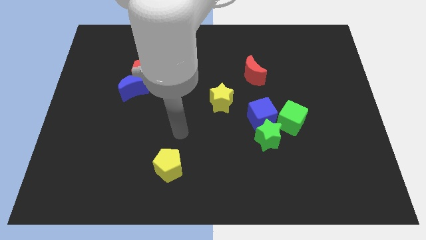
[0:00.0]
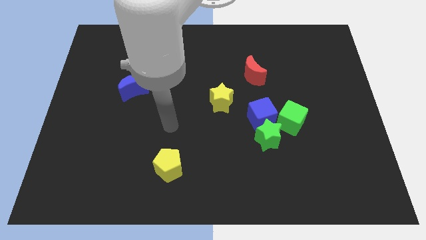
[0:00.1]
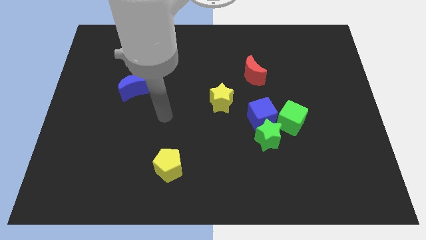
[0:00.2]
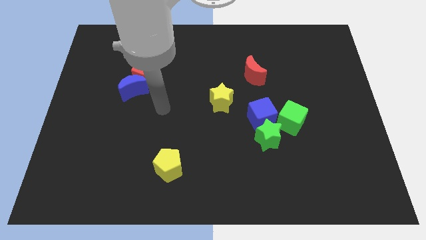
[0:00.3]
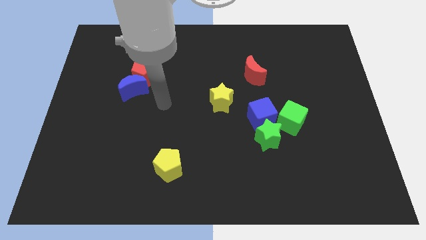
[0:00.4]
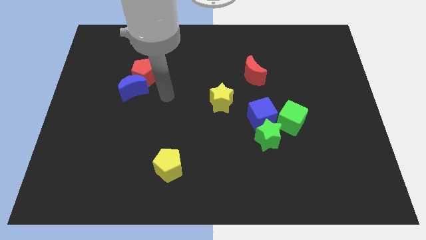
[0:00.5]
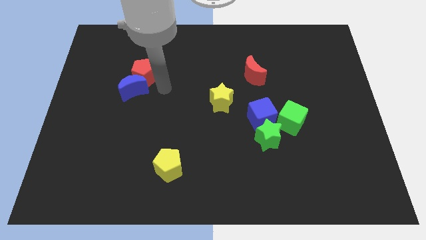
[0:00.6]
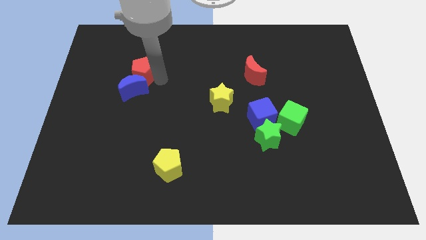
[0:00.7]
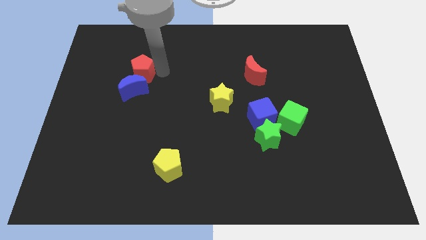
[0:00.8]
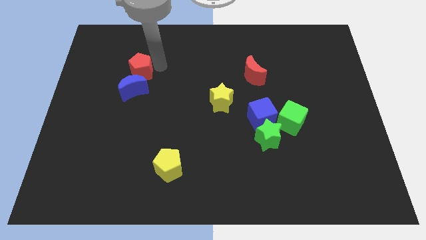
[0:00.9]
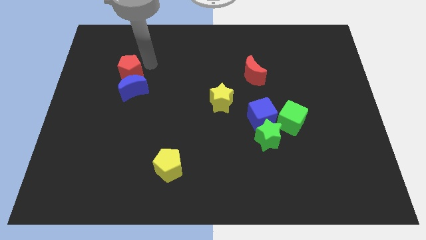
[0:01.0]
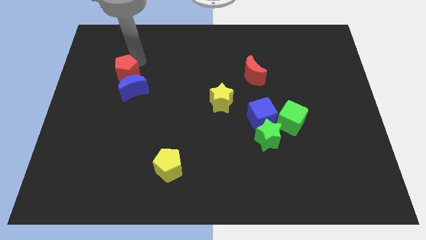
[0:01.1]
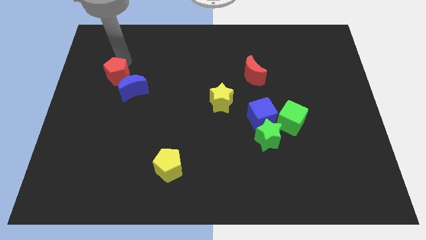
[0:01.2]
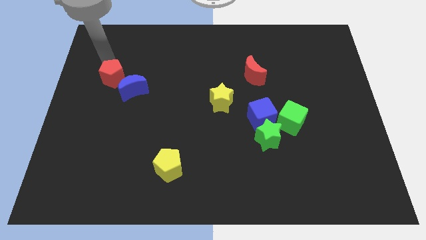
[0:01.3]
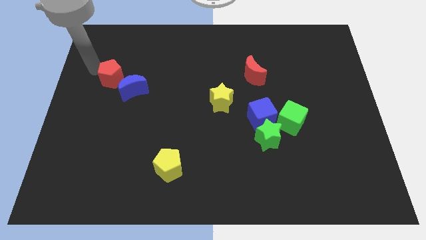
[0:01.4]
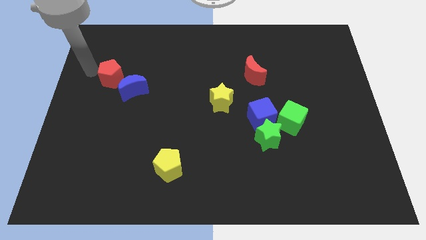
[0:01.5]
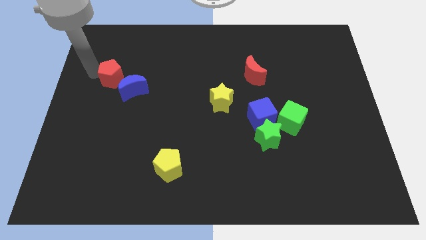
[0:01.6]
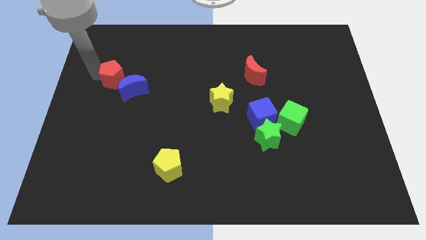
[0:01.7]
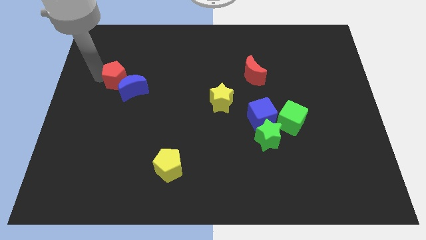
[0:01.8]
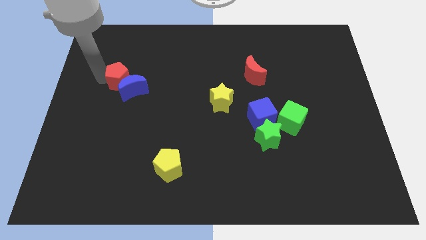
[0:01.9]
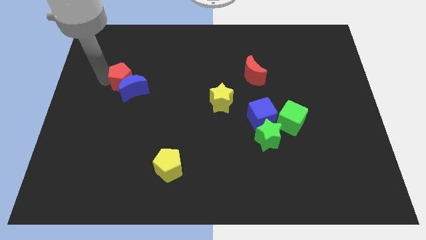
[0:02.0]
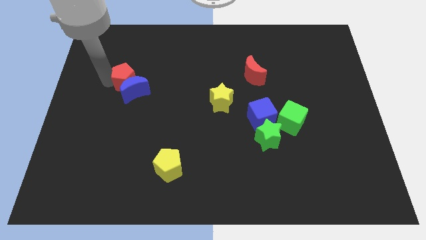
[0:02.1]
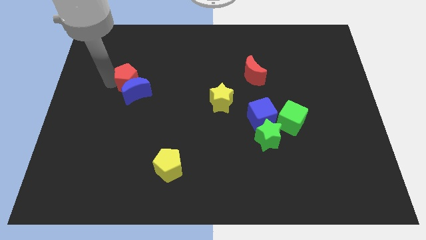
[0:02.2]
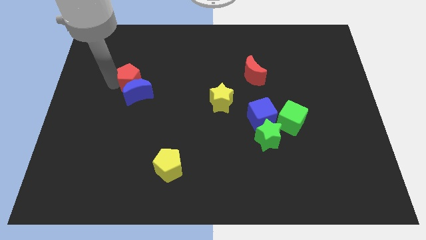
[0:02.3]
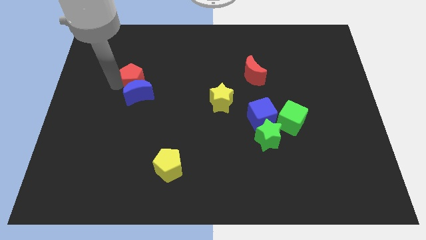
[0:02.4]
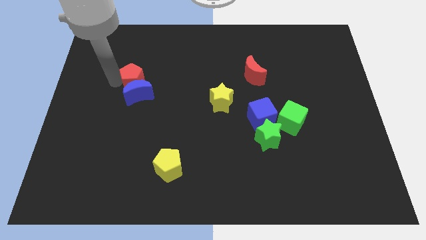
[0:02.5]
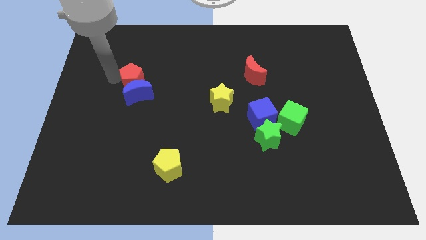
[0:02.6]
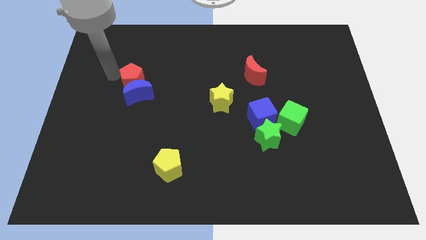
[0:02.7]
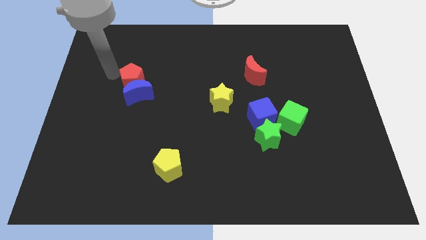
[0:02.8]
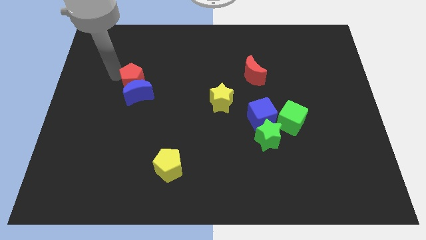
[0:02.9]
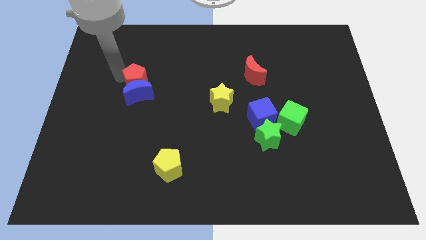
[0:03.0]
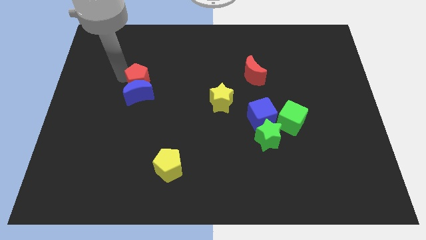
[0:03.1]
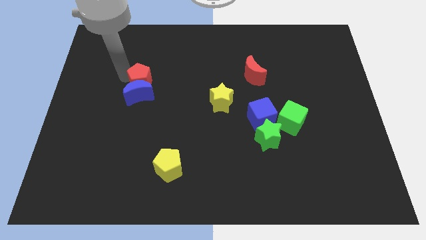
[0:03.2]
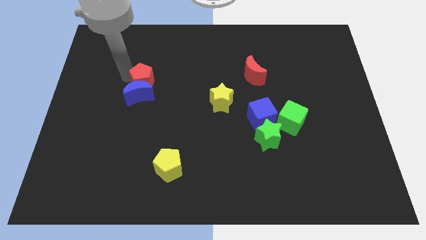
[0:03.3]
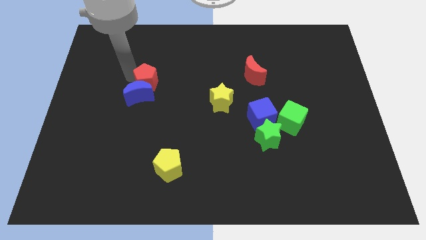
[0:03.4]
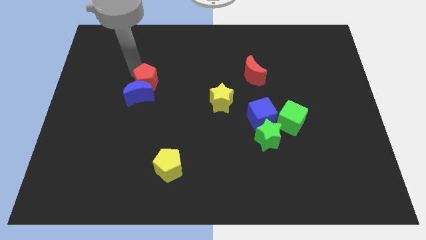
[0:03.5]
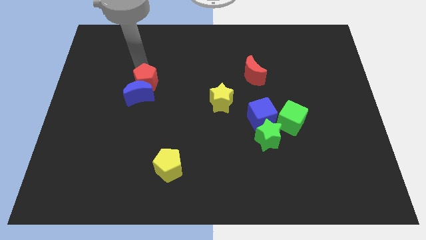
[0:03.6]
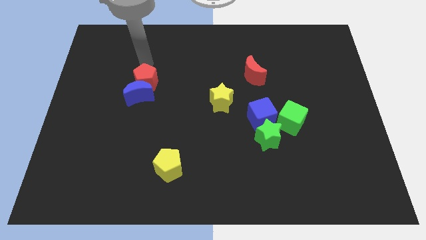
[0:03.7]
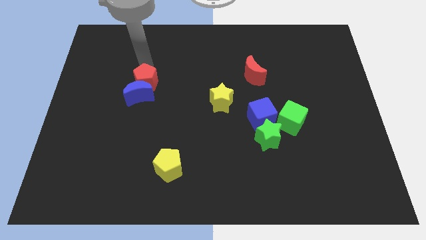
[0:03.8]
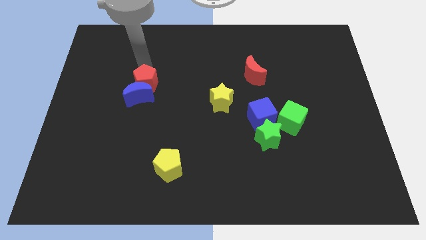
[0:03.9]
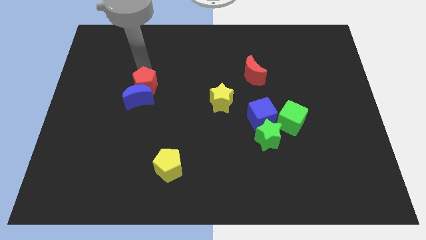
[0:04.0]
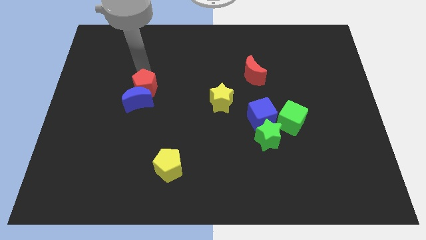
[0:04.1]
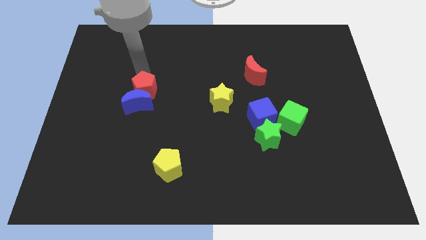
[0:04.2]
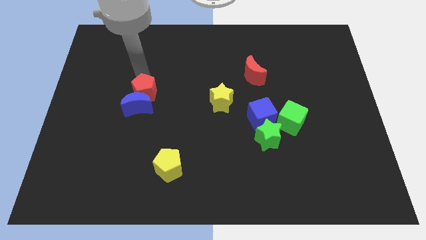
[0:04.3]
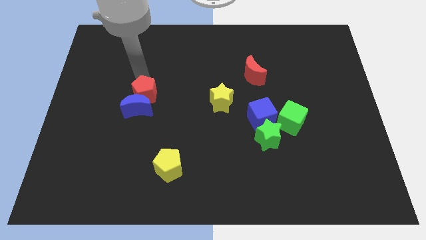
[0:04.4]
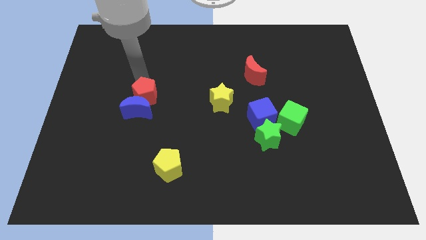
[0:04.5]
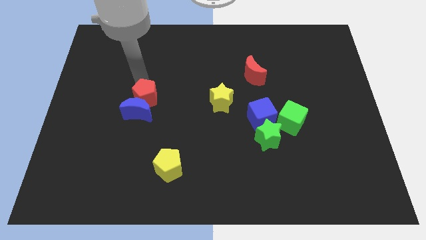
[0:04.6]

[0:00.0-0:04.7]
slightly slide the red pentagon down

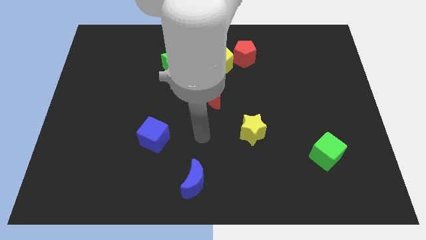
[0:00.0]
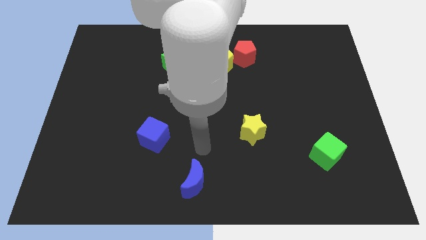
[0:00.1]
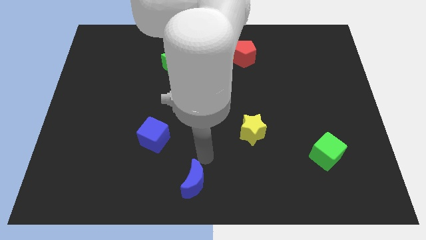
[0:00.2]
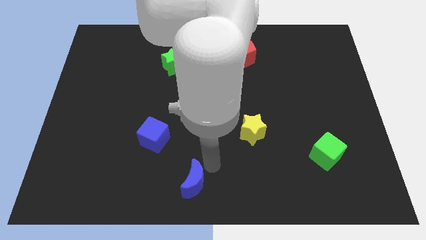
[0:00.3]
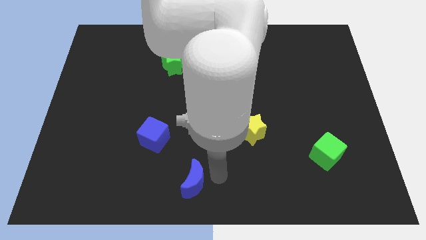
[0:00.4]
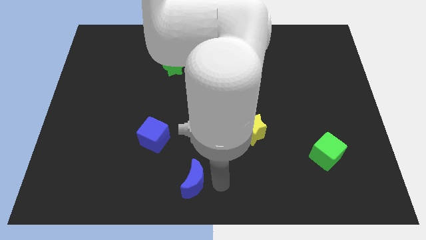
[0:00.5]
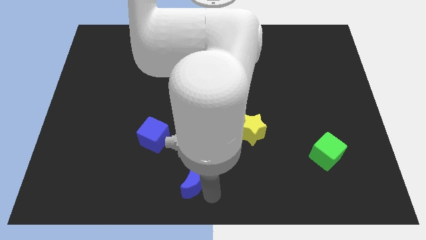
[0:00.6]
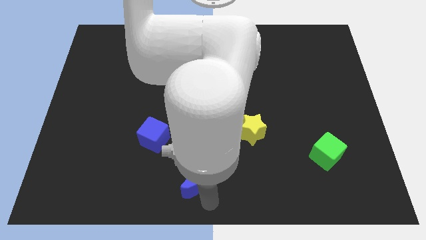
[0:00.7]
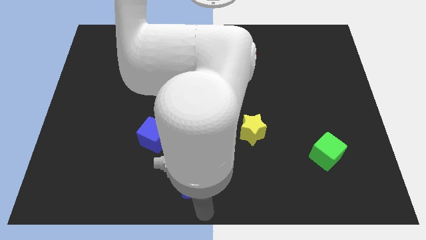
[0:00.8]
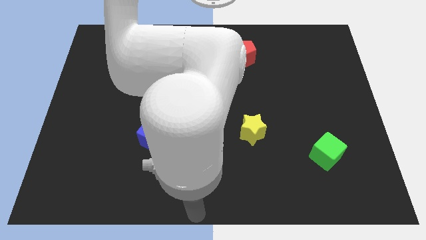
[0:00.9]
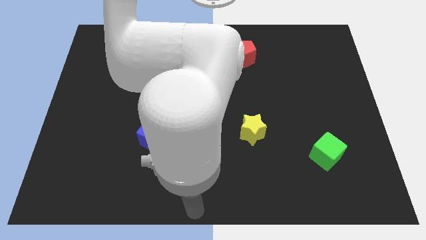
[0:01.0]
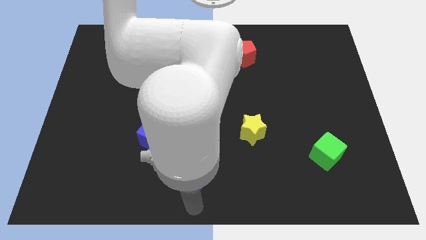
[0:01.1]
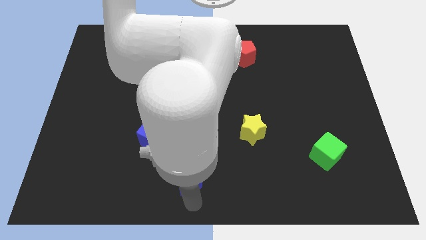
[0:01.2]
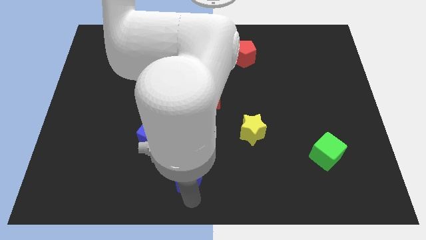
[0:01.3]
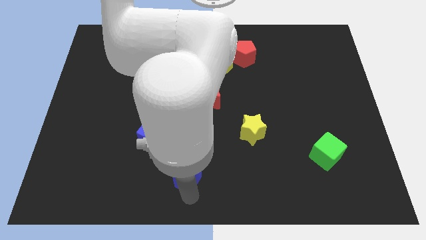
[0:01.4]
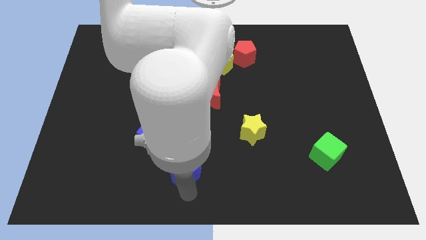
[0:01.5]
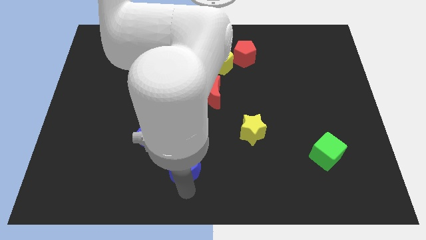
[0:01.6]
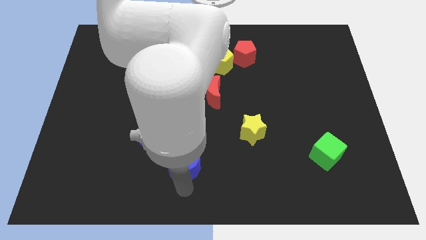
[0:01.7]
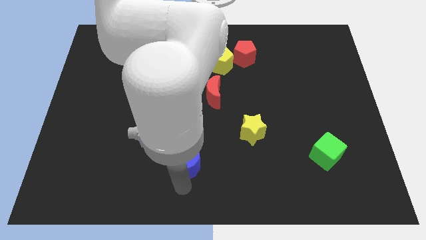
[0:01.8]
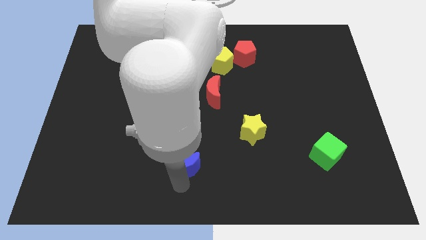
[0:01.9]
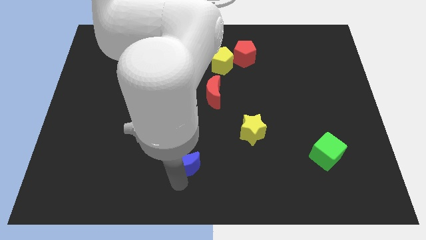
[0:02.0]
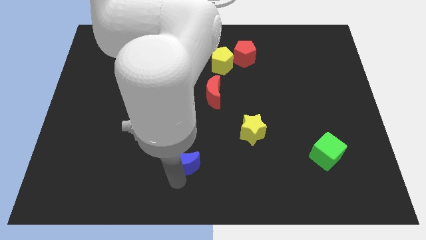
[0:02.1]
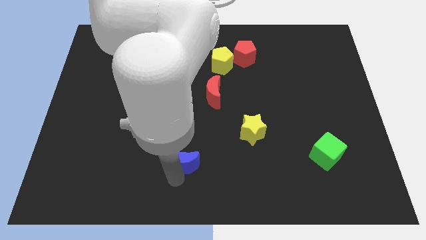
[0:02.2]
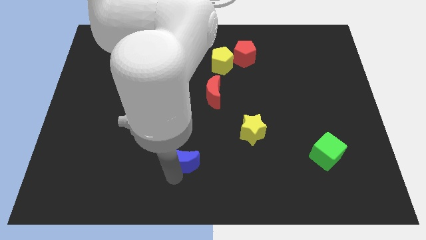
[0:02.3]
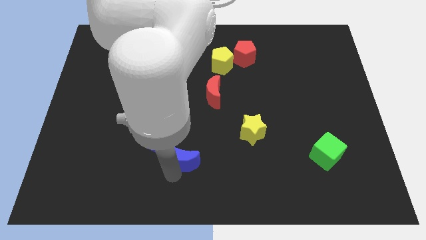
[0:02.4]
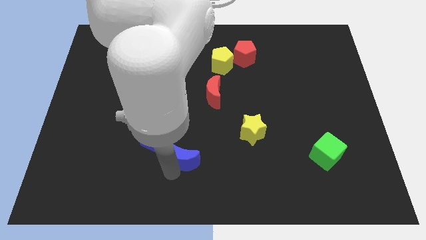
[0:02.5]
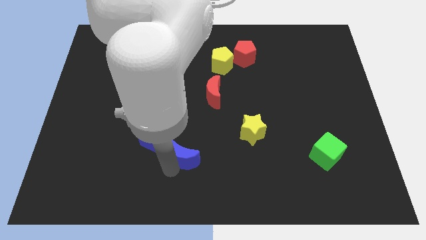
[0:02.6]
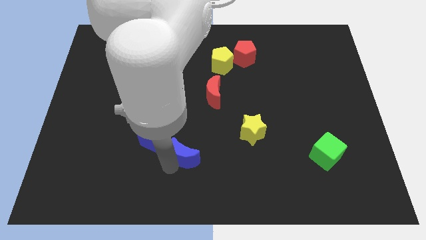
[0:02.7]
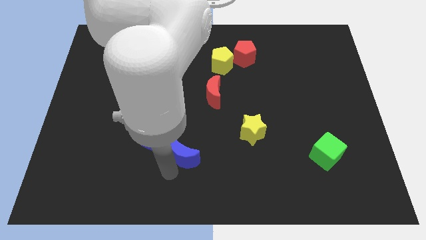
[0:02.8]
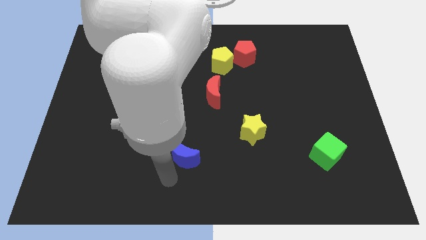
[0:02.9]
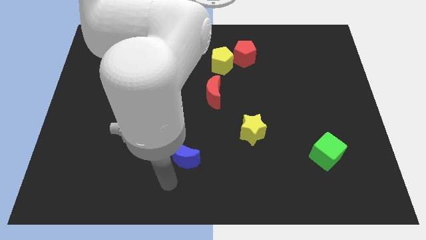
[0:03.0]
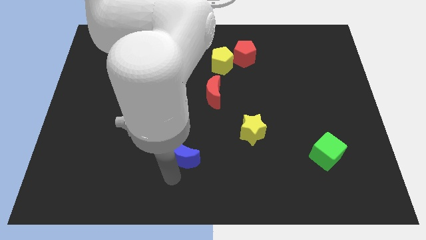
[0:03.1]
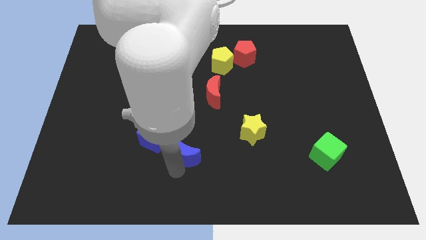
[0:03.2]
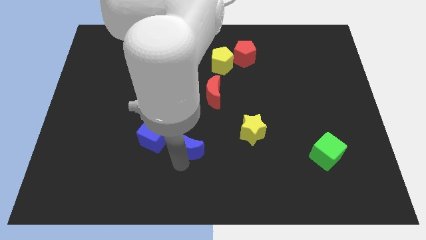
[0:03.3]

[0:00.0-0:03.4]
slide the blue moon upwards a little bit
